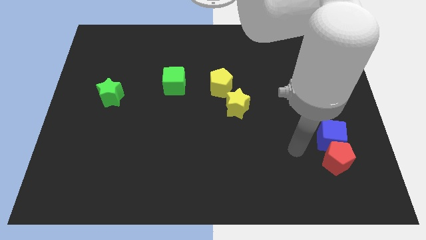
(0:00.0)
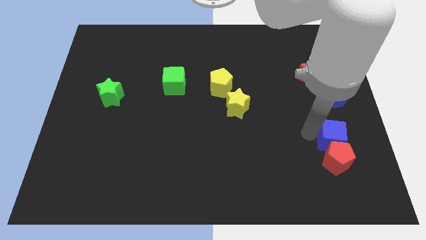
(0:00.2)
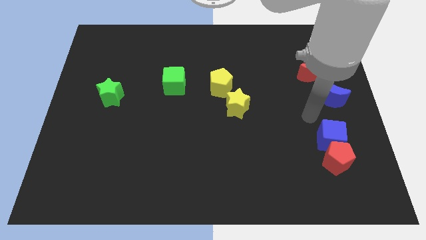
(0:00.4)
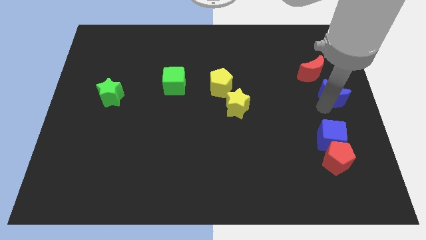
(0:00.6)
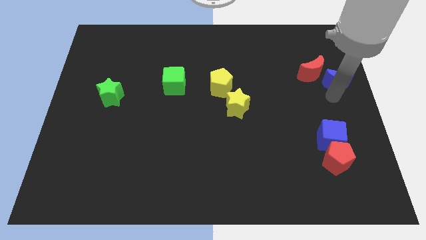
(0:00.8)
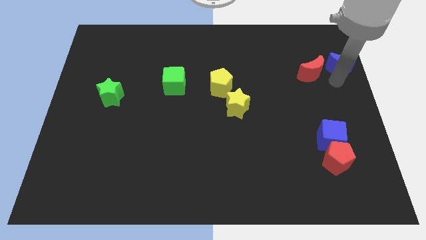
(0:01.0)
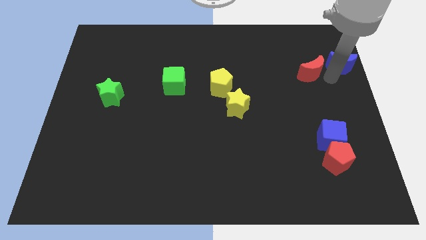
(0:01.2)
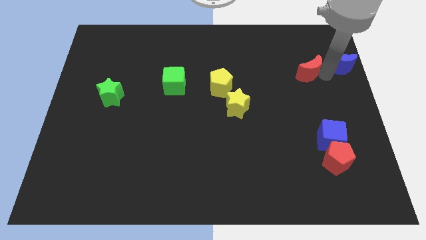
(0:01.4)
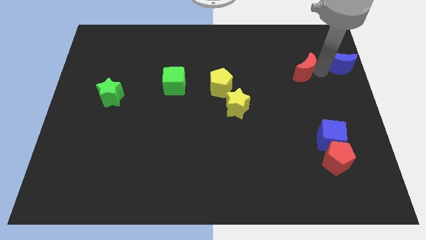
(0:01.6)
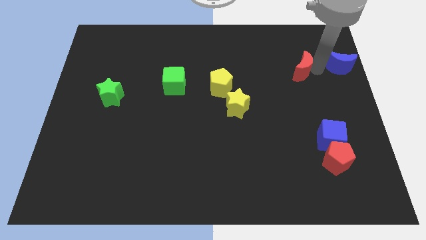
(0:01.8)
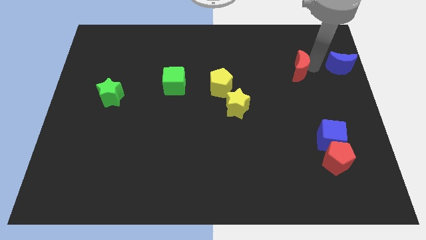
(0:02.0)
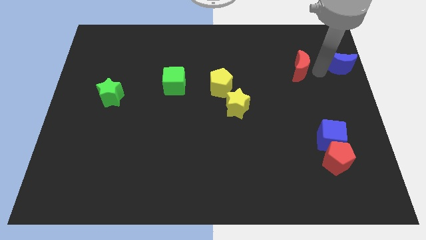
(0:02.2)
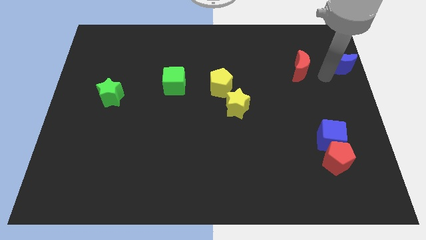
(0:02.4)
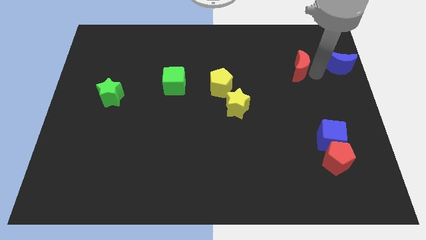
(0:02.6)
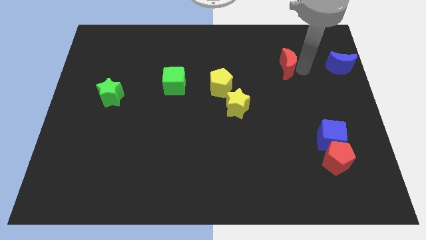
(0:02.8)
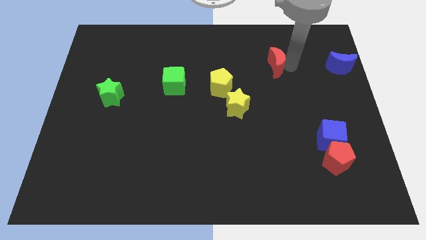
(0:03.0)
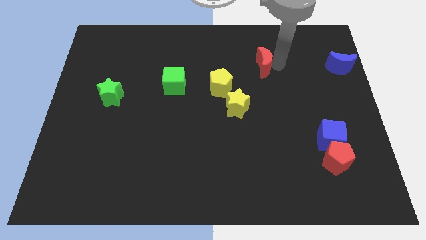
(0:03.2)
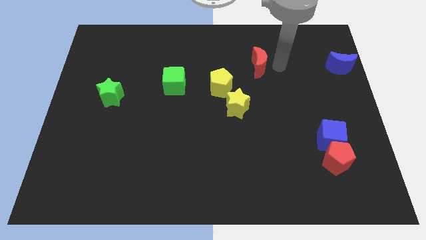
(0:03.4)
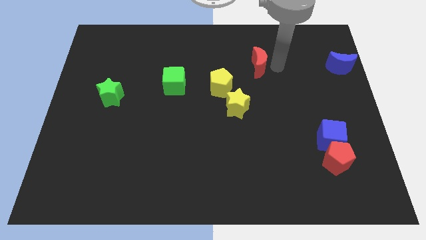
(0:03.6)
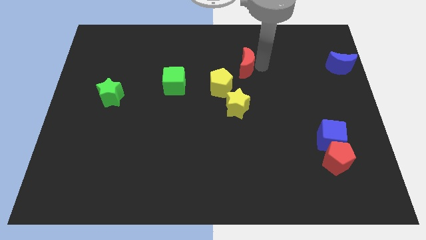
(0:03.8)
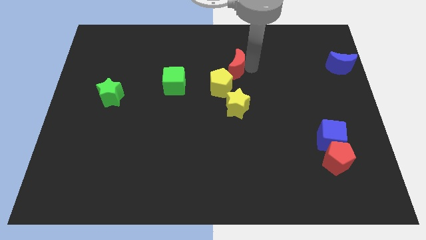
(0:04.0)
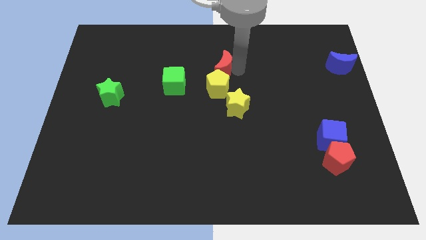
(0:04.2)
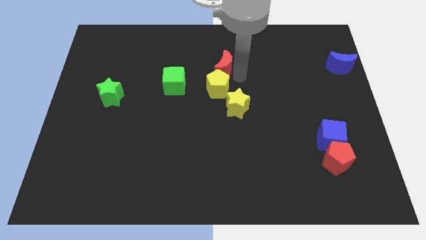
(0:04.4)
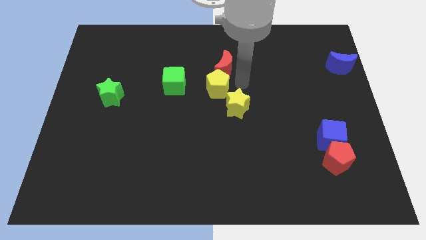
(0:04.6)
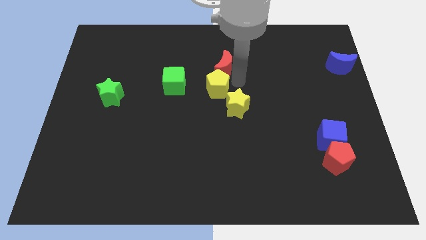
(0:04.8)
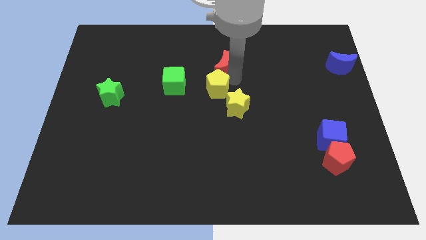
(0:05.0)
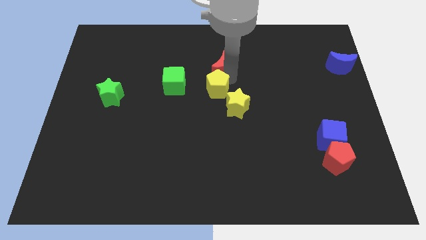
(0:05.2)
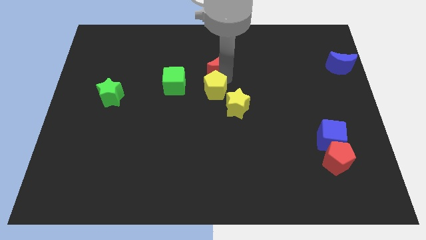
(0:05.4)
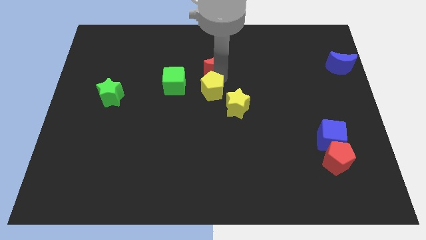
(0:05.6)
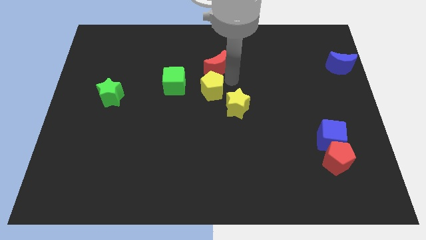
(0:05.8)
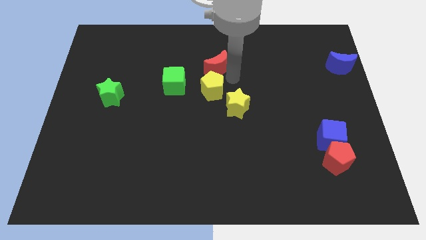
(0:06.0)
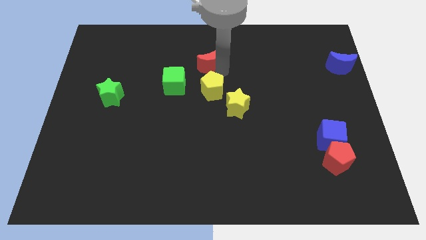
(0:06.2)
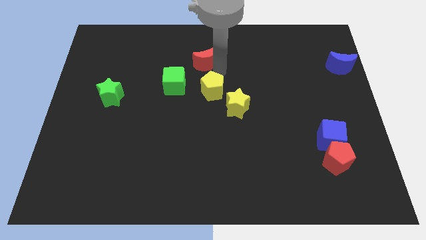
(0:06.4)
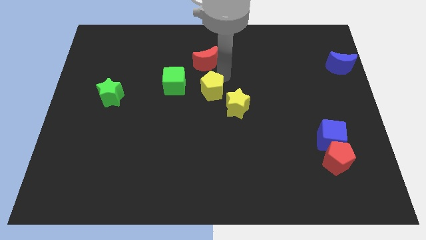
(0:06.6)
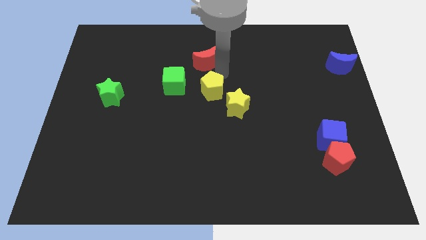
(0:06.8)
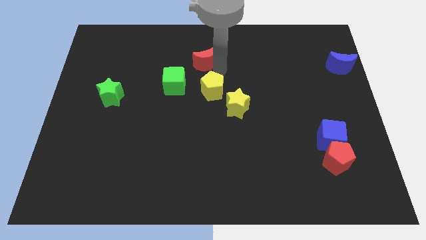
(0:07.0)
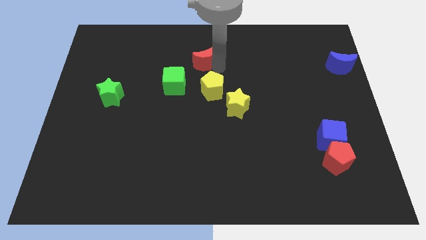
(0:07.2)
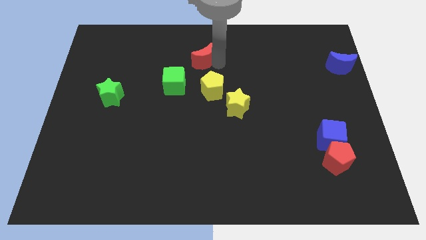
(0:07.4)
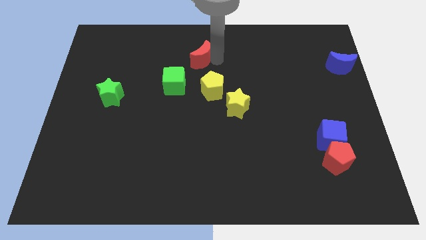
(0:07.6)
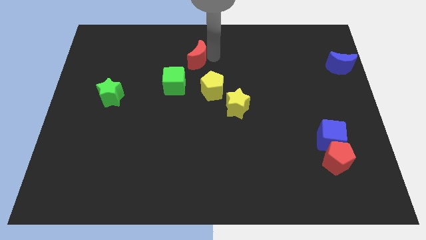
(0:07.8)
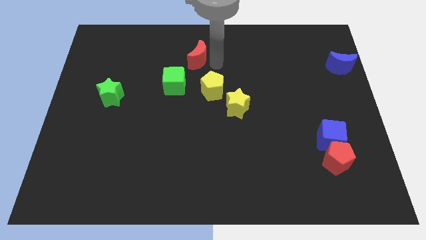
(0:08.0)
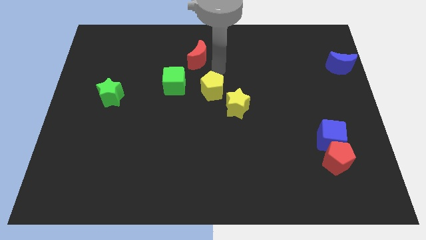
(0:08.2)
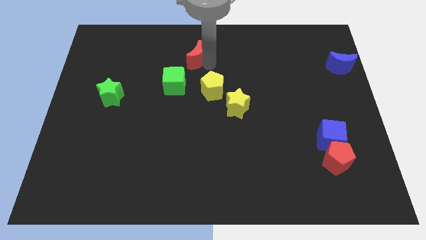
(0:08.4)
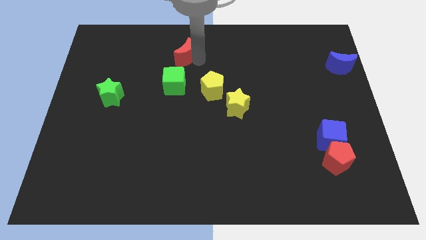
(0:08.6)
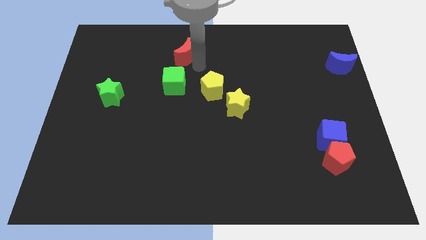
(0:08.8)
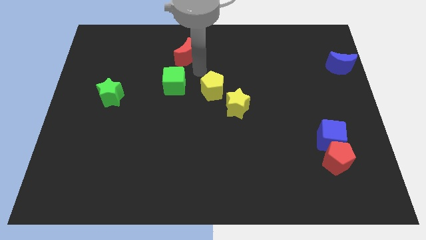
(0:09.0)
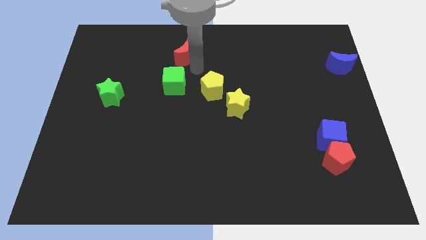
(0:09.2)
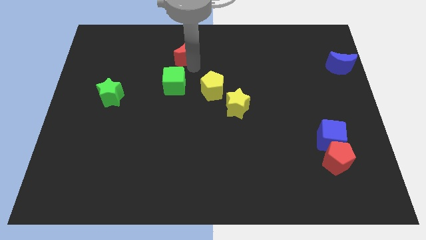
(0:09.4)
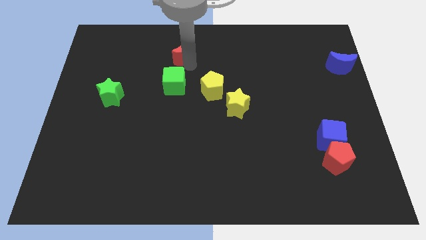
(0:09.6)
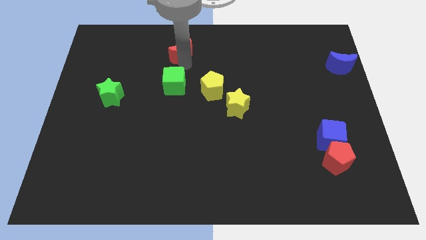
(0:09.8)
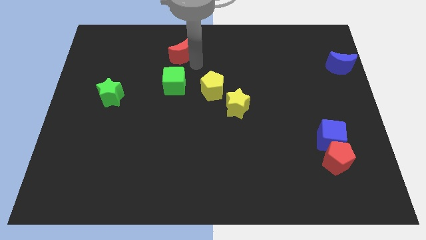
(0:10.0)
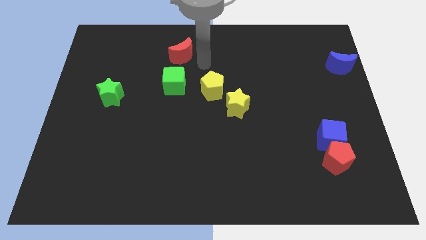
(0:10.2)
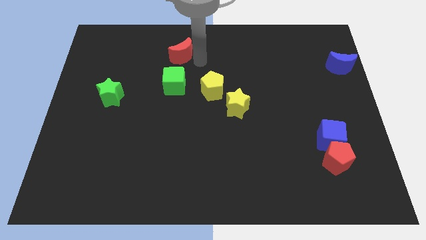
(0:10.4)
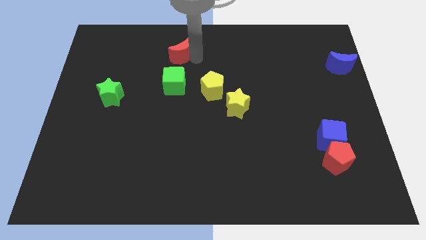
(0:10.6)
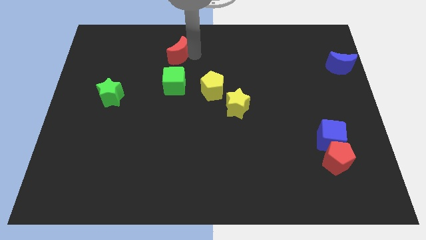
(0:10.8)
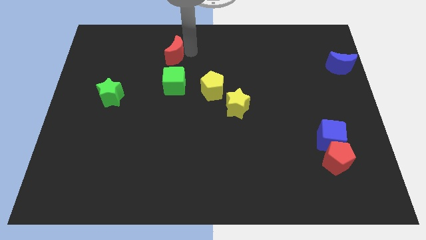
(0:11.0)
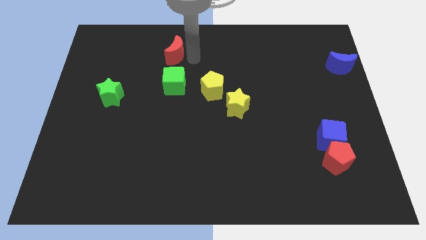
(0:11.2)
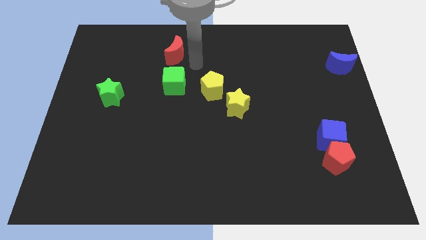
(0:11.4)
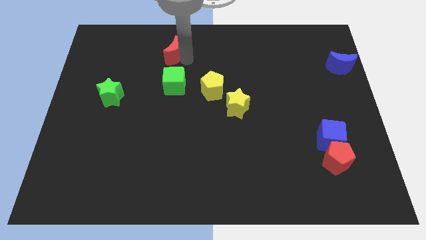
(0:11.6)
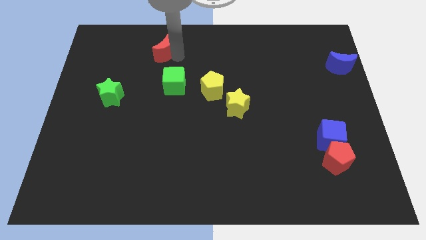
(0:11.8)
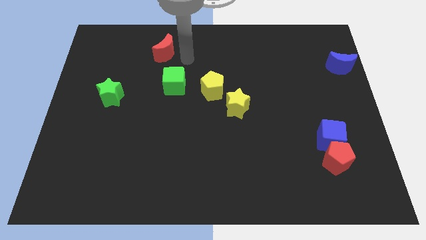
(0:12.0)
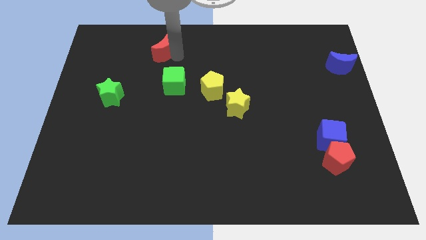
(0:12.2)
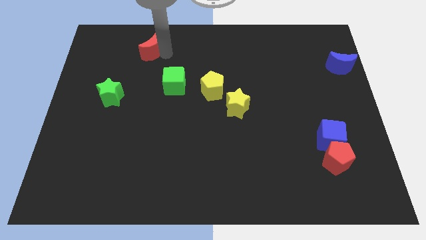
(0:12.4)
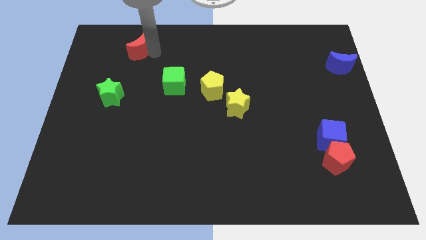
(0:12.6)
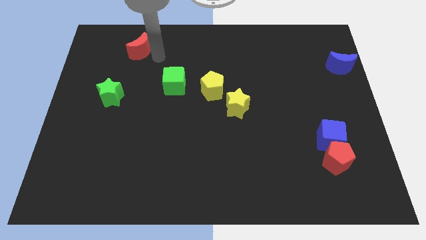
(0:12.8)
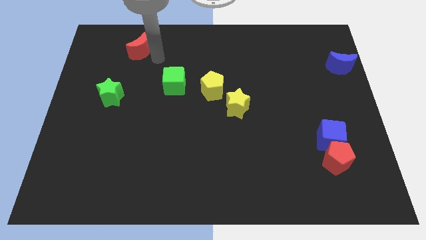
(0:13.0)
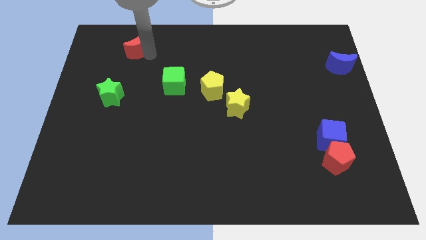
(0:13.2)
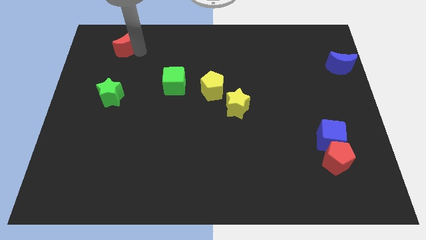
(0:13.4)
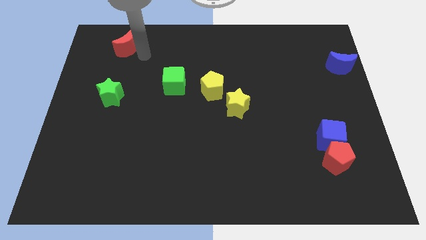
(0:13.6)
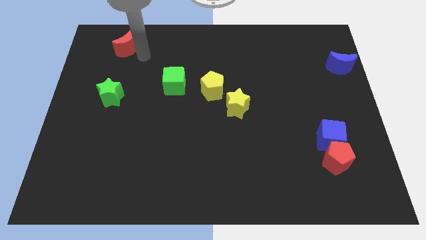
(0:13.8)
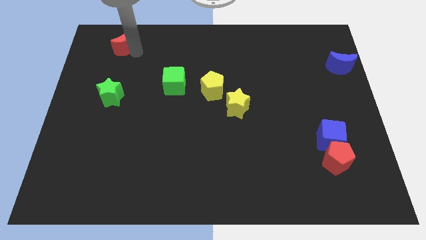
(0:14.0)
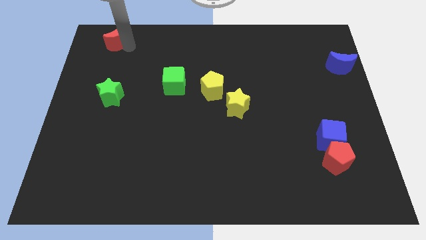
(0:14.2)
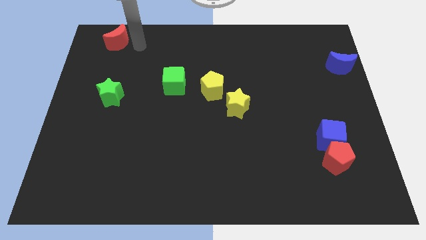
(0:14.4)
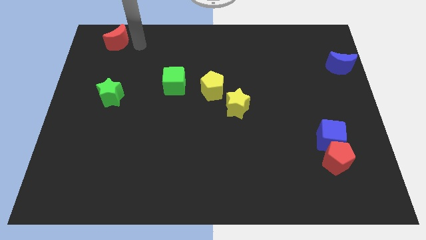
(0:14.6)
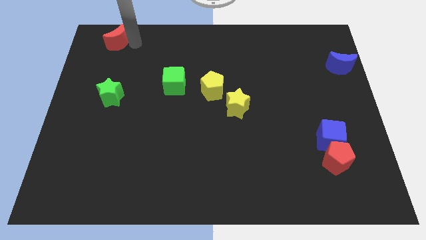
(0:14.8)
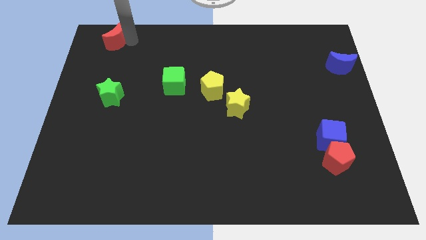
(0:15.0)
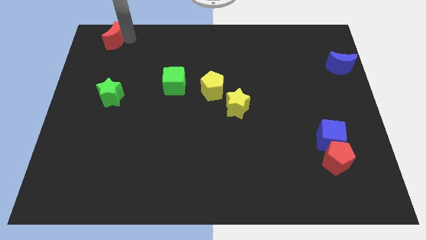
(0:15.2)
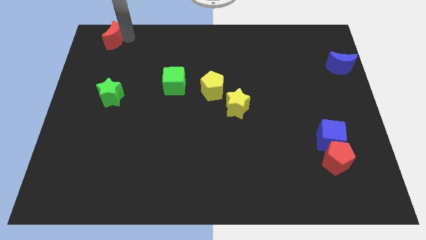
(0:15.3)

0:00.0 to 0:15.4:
put the red moon to the top left corner
